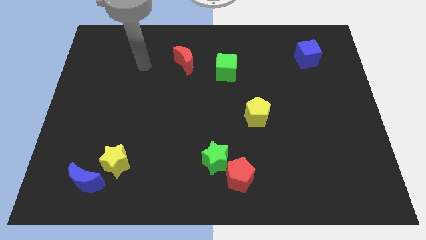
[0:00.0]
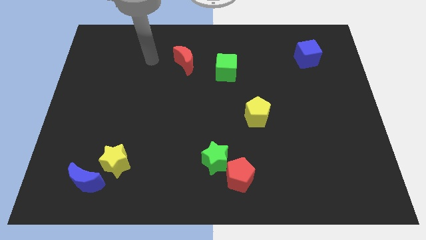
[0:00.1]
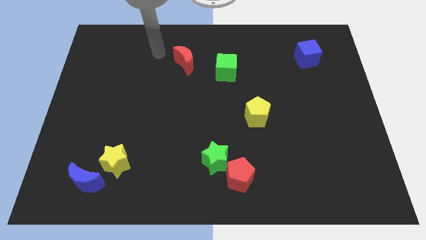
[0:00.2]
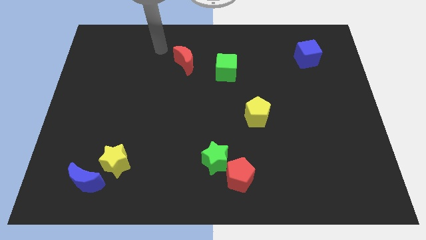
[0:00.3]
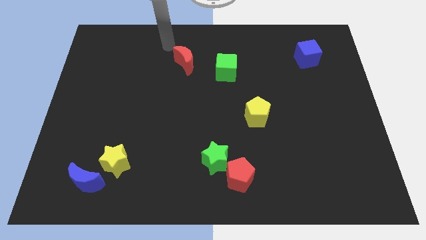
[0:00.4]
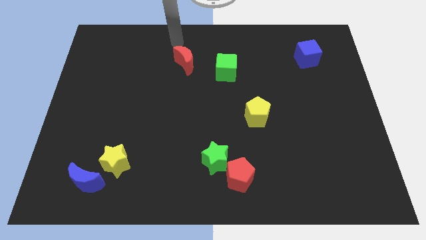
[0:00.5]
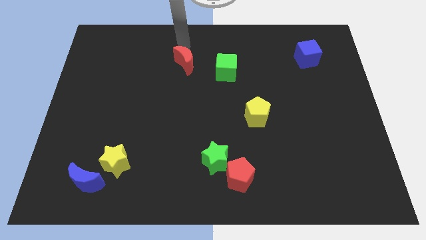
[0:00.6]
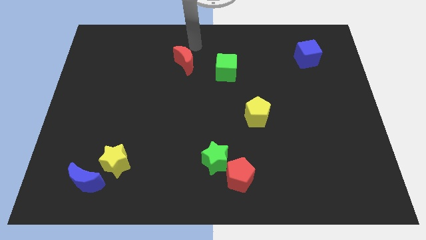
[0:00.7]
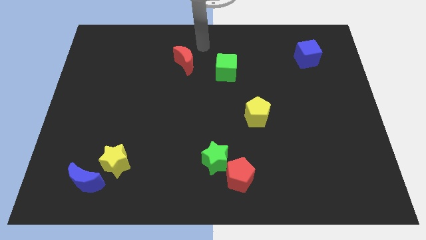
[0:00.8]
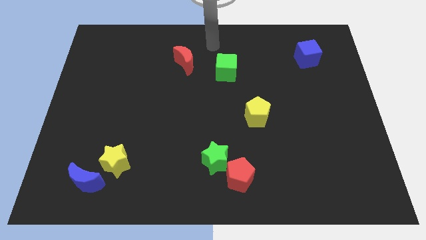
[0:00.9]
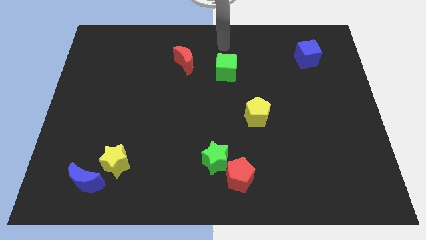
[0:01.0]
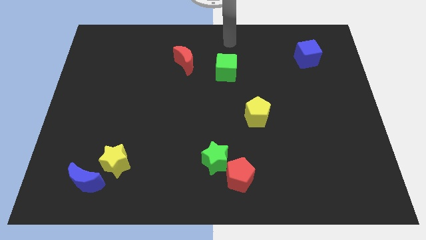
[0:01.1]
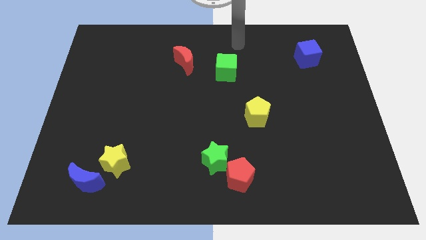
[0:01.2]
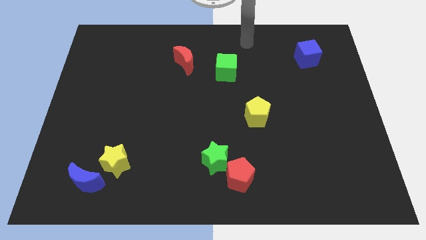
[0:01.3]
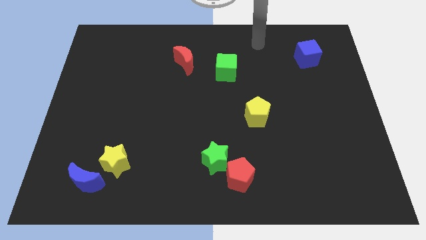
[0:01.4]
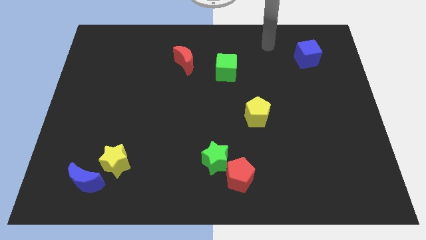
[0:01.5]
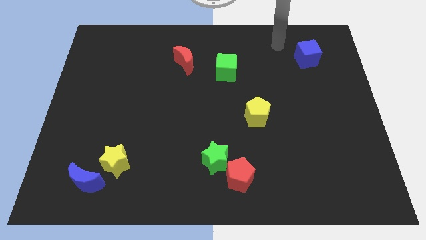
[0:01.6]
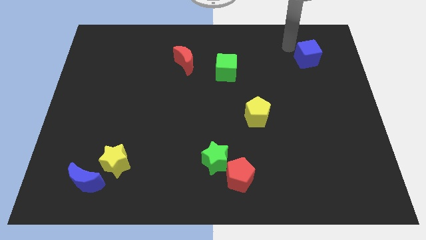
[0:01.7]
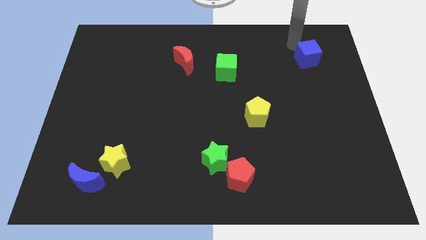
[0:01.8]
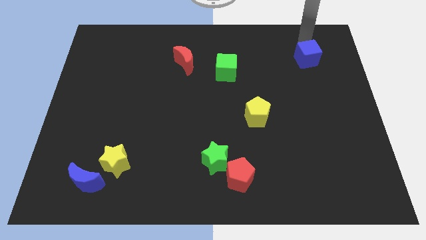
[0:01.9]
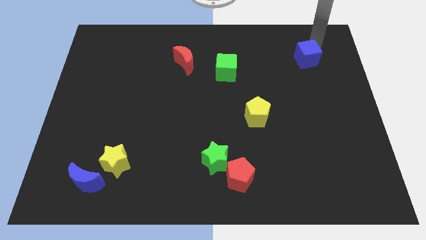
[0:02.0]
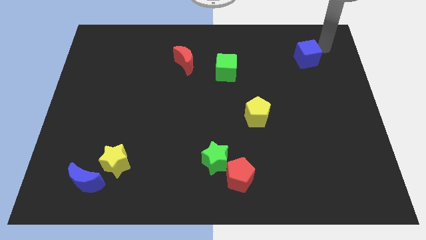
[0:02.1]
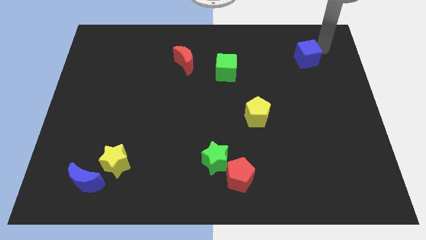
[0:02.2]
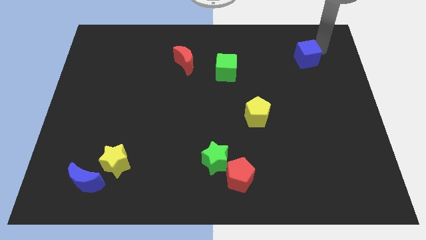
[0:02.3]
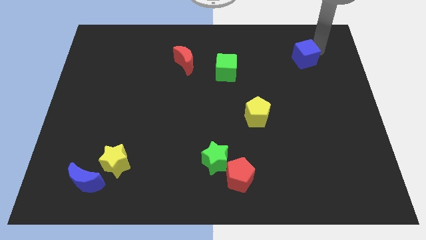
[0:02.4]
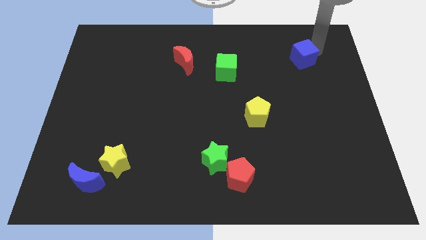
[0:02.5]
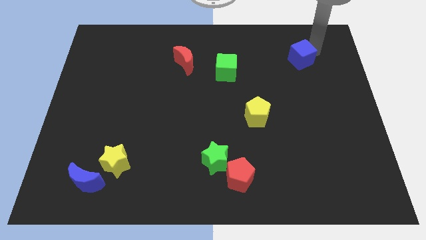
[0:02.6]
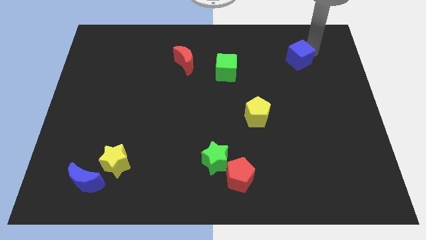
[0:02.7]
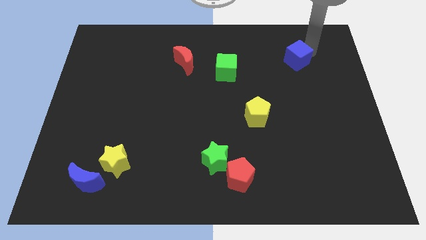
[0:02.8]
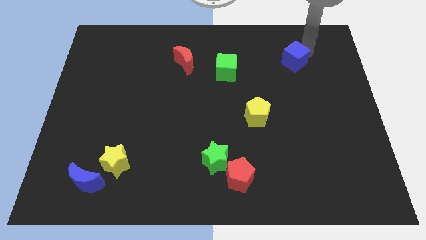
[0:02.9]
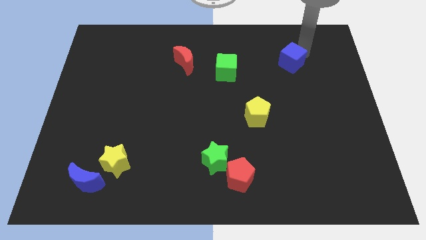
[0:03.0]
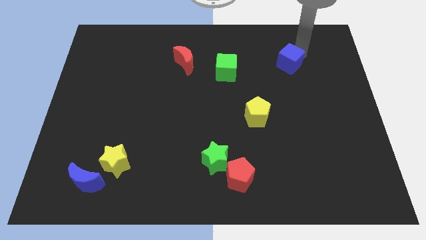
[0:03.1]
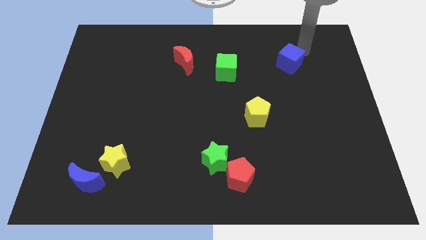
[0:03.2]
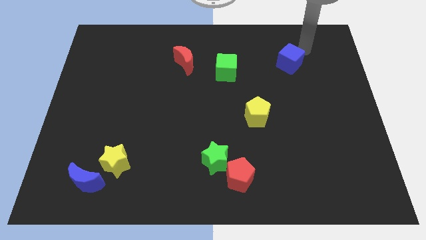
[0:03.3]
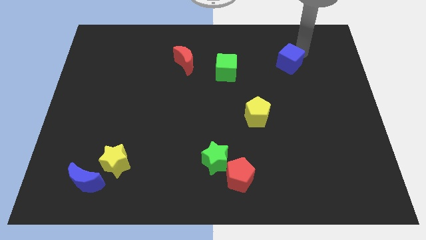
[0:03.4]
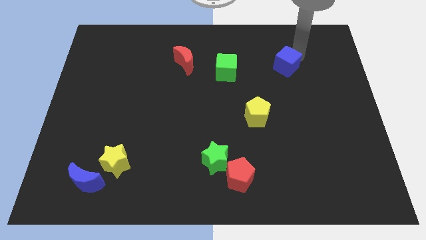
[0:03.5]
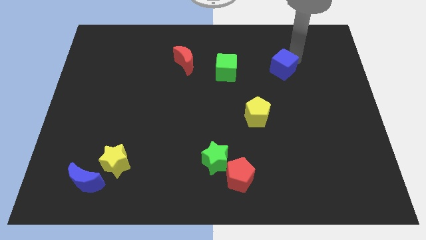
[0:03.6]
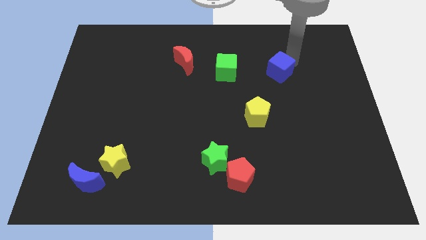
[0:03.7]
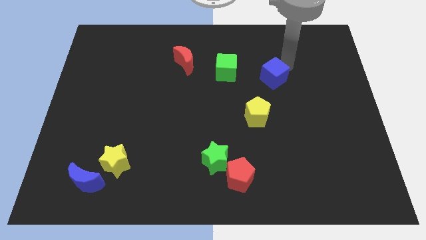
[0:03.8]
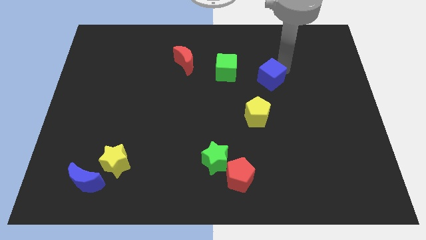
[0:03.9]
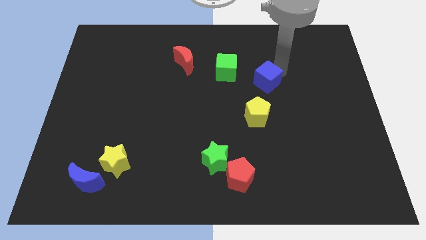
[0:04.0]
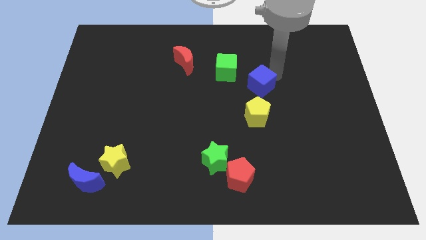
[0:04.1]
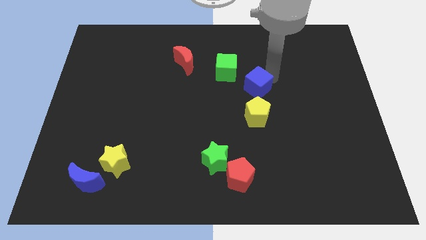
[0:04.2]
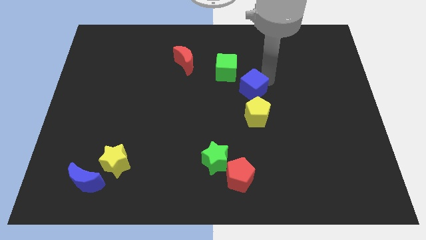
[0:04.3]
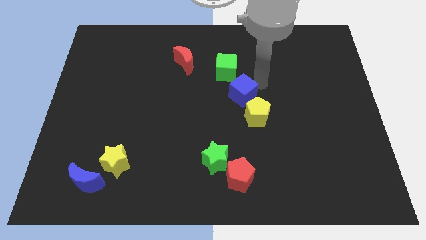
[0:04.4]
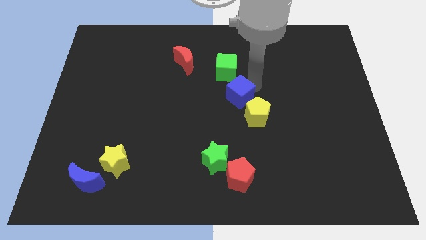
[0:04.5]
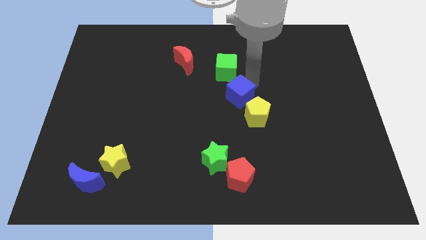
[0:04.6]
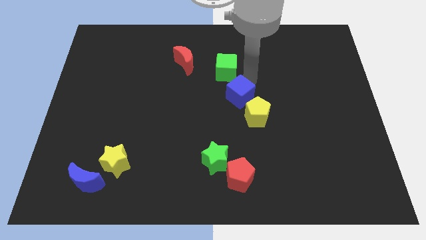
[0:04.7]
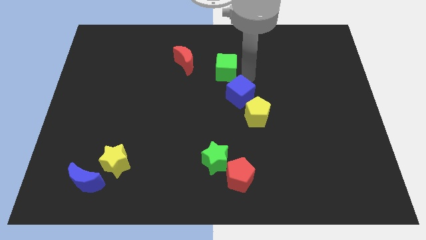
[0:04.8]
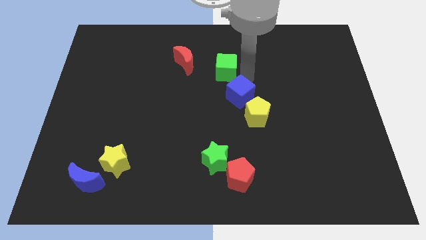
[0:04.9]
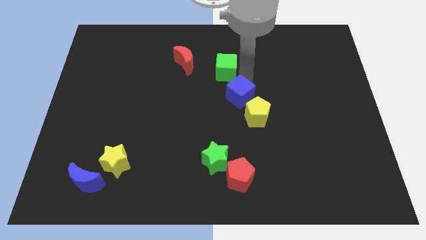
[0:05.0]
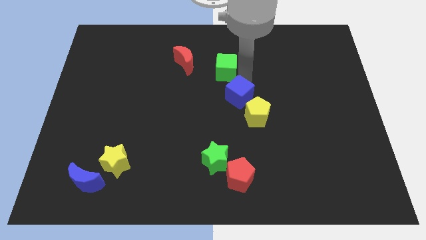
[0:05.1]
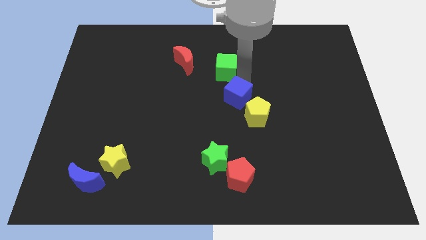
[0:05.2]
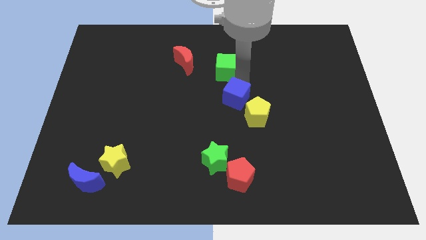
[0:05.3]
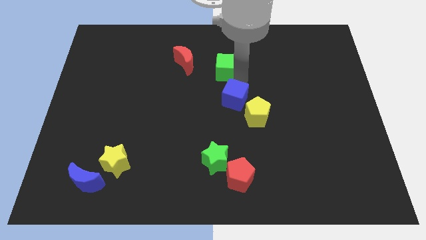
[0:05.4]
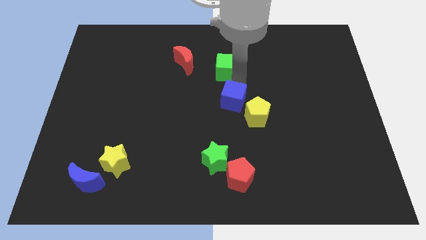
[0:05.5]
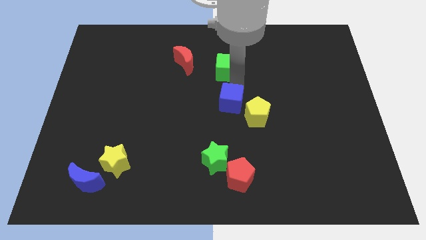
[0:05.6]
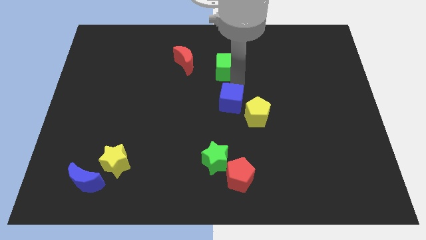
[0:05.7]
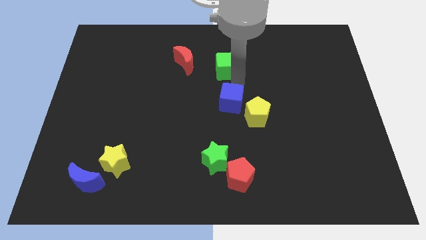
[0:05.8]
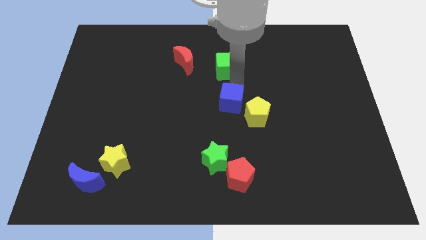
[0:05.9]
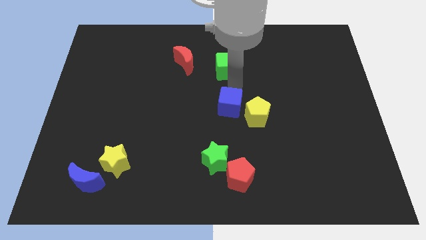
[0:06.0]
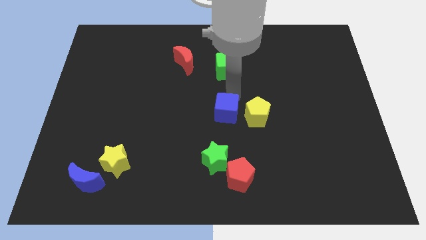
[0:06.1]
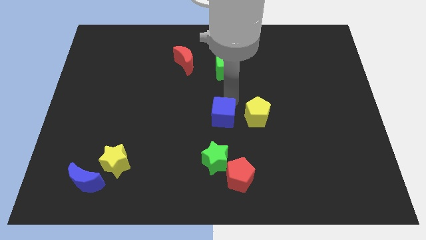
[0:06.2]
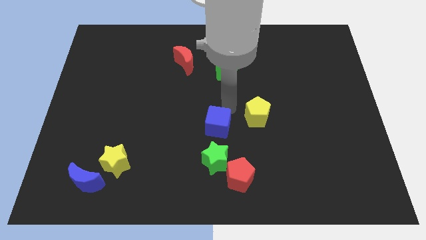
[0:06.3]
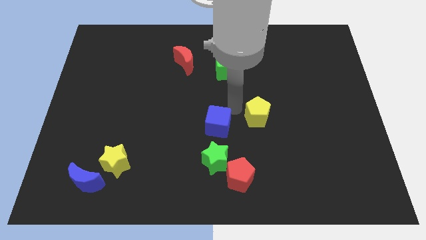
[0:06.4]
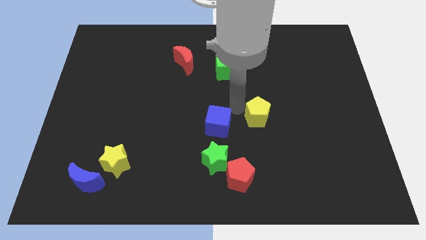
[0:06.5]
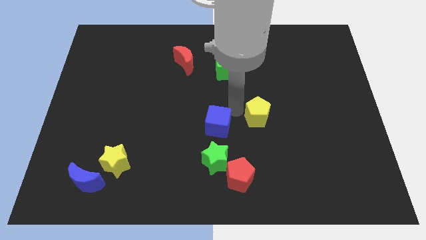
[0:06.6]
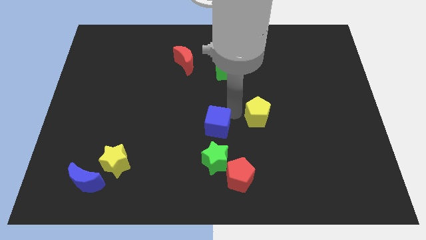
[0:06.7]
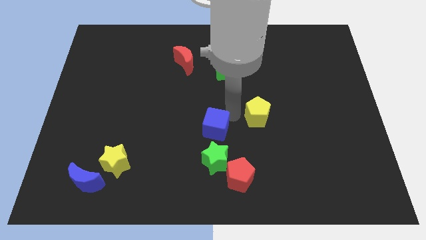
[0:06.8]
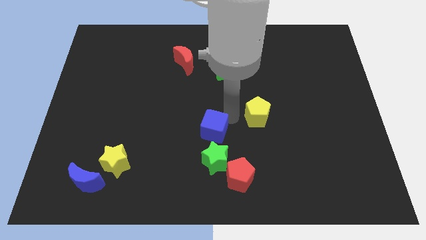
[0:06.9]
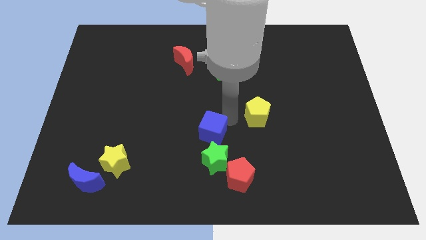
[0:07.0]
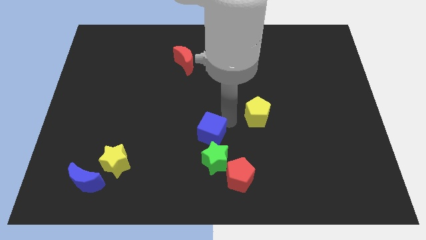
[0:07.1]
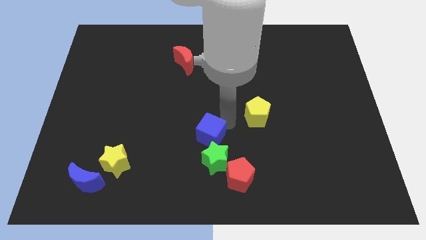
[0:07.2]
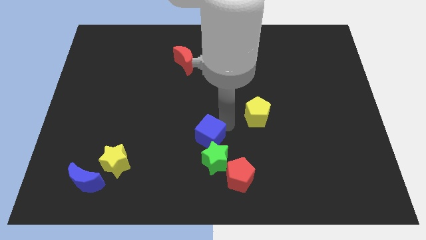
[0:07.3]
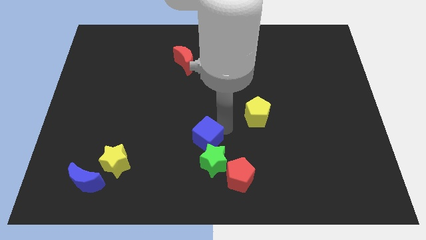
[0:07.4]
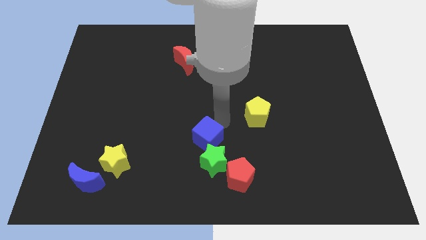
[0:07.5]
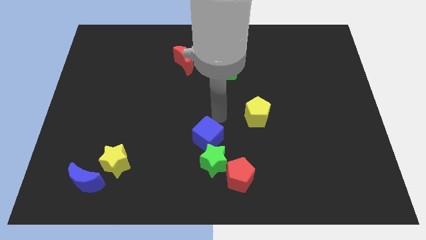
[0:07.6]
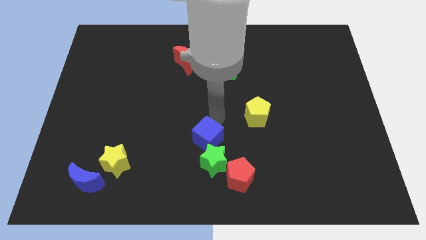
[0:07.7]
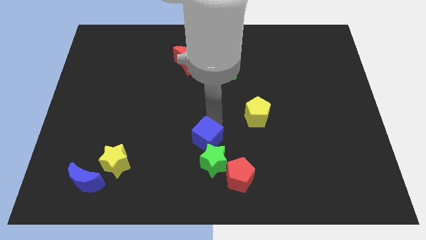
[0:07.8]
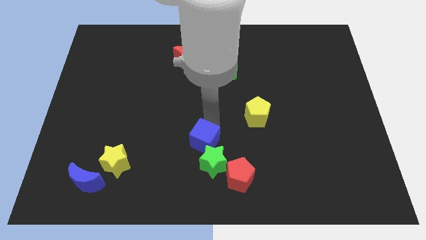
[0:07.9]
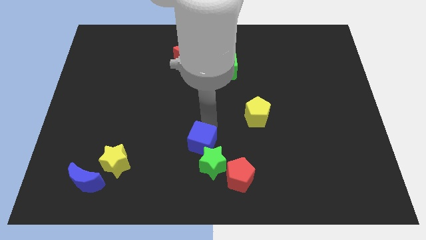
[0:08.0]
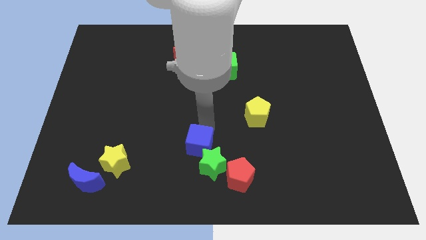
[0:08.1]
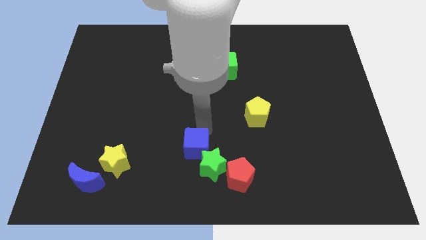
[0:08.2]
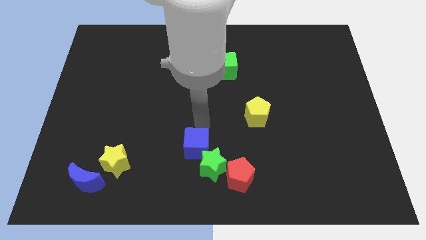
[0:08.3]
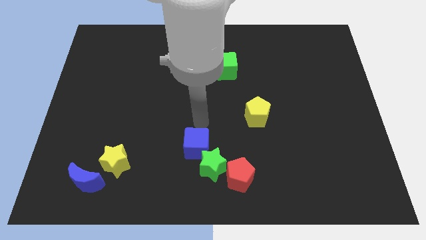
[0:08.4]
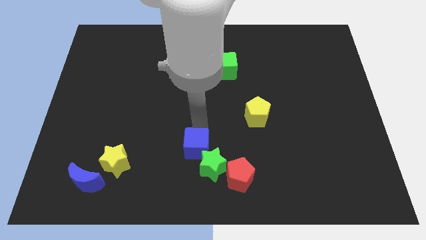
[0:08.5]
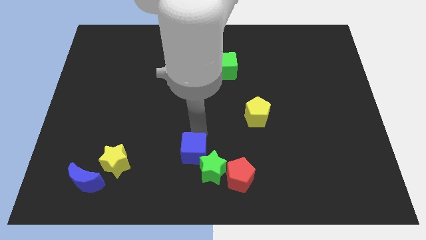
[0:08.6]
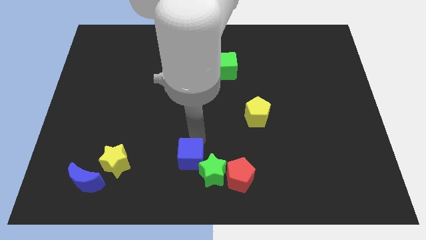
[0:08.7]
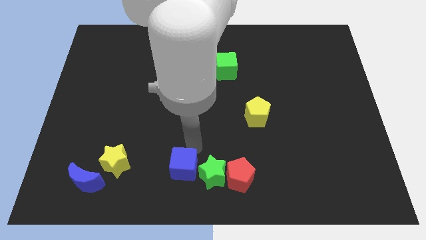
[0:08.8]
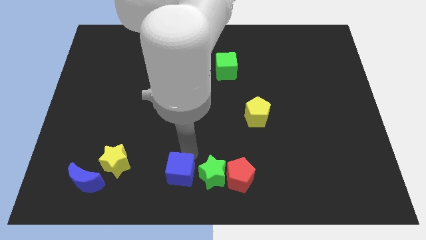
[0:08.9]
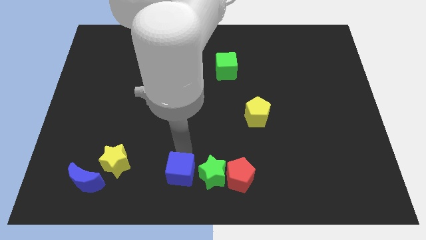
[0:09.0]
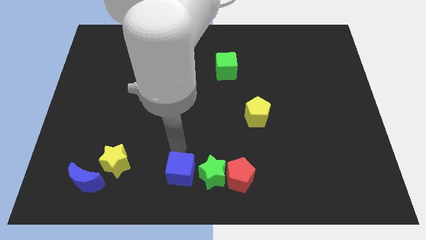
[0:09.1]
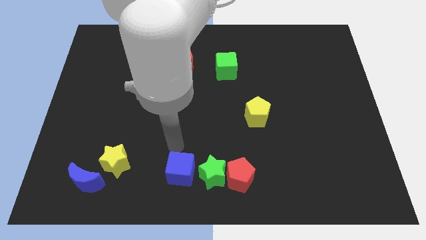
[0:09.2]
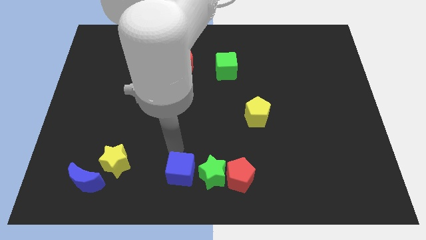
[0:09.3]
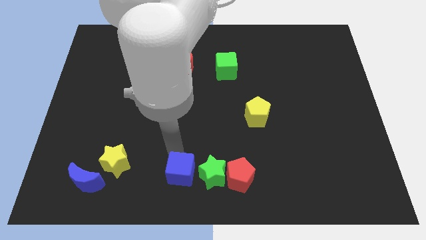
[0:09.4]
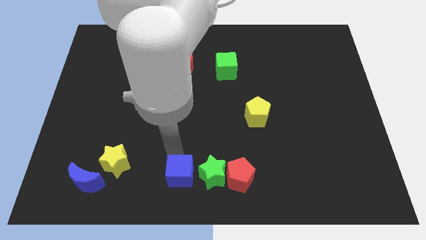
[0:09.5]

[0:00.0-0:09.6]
push the blue cube diagonally down and to the left of the green star
